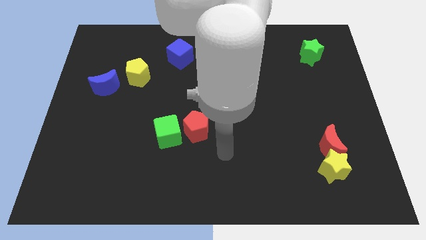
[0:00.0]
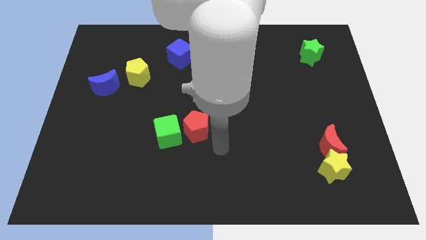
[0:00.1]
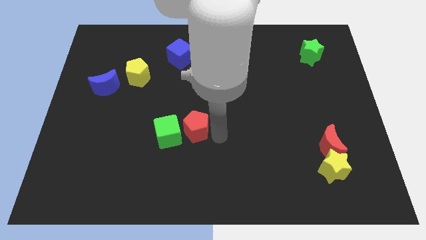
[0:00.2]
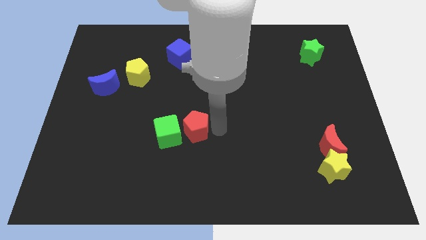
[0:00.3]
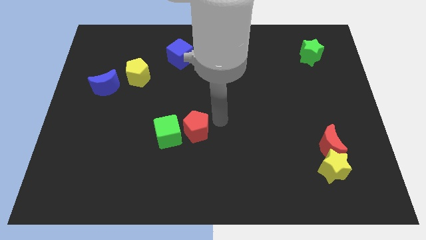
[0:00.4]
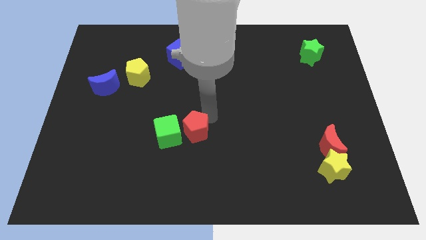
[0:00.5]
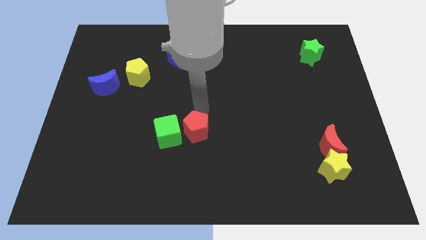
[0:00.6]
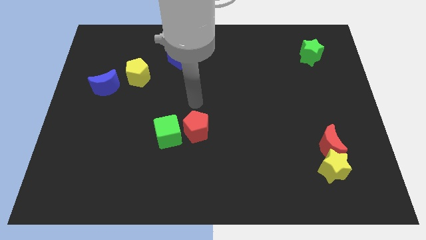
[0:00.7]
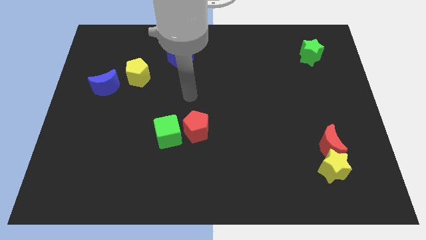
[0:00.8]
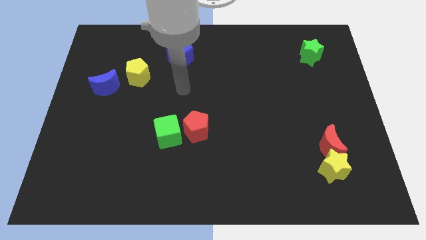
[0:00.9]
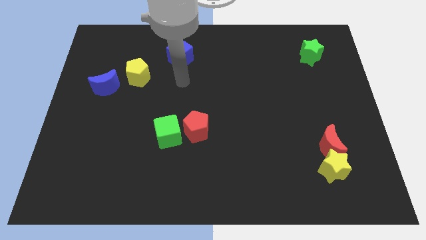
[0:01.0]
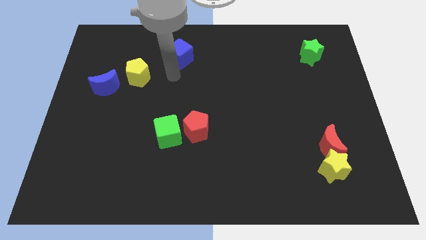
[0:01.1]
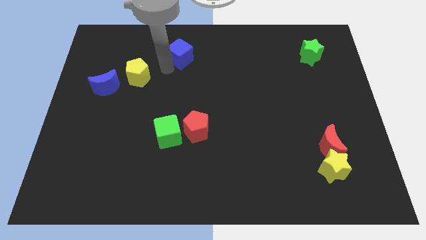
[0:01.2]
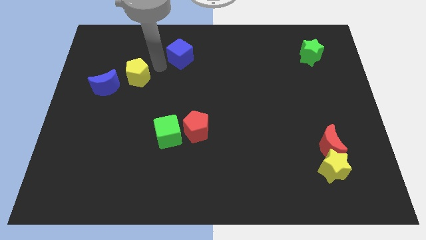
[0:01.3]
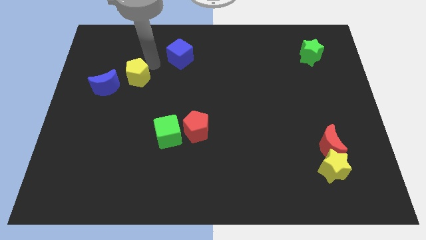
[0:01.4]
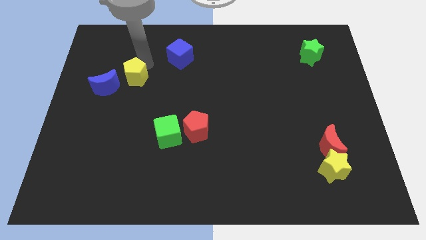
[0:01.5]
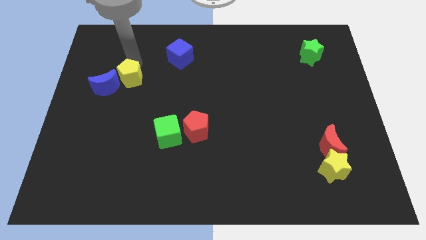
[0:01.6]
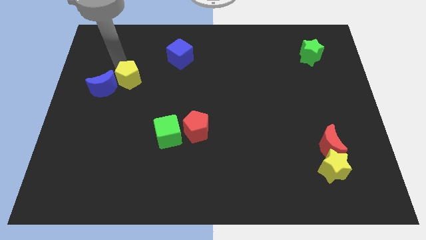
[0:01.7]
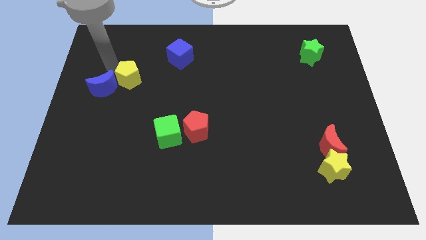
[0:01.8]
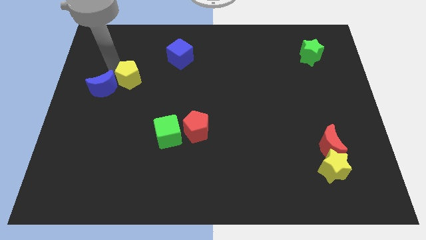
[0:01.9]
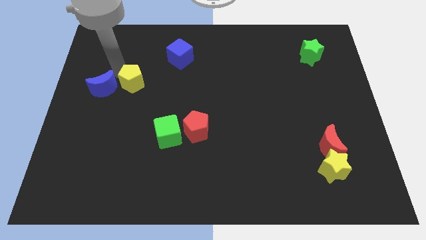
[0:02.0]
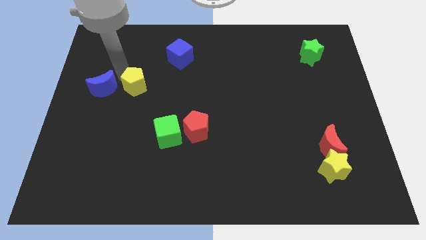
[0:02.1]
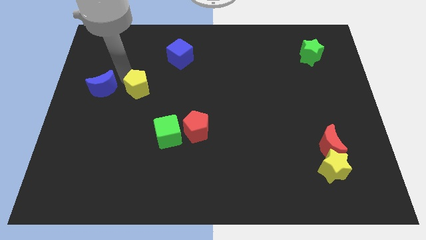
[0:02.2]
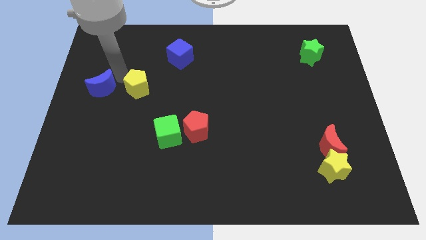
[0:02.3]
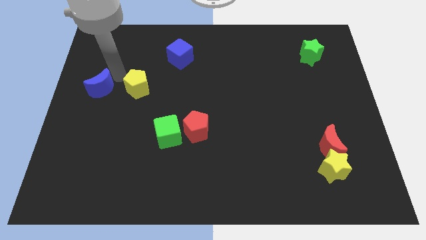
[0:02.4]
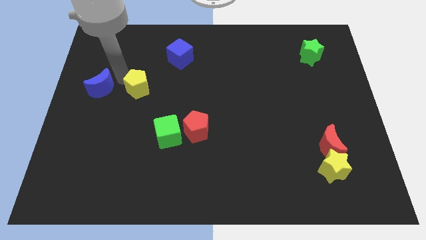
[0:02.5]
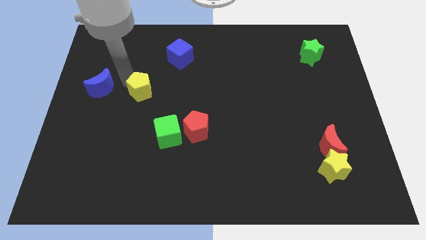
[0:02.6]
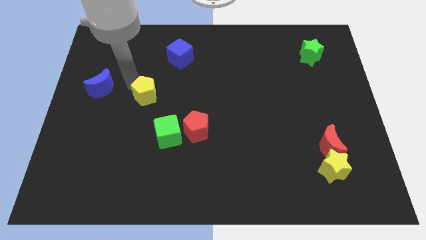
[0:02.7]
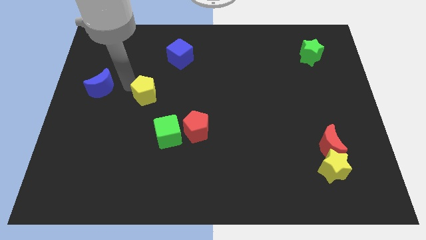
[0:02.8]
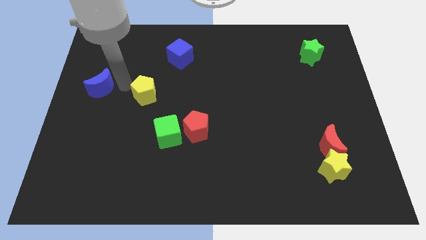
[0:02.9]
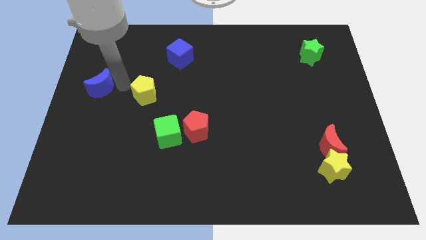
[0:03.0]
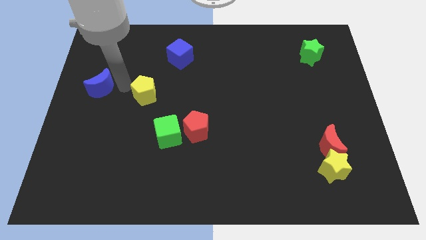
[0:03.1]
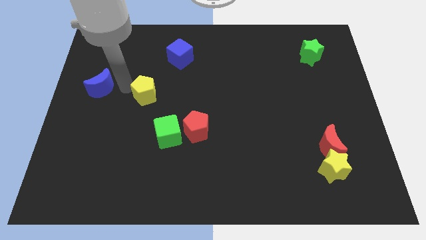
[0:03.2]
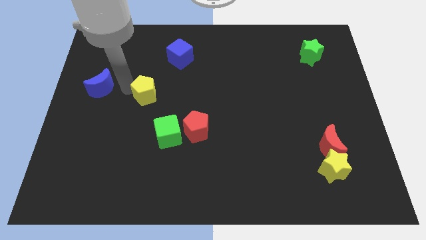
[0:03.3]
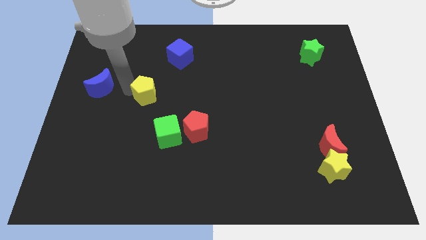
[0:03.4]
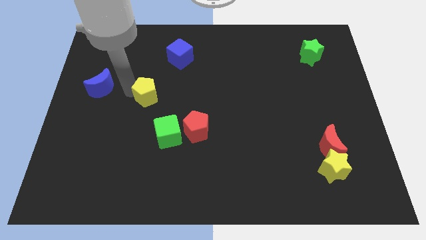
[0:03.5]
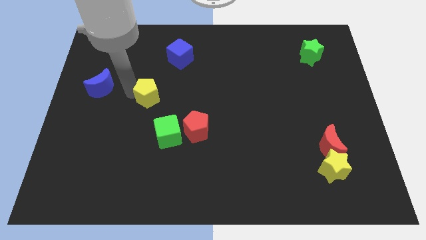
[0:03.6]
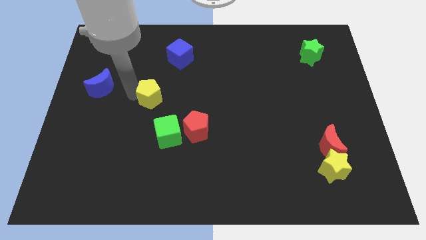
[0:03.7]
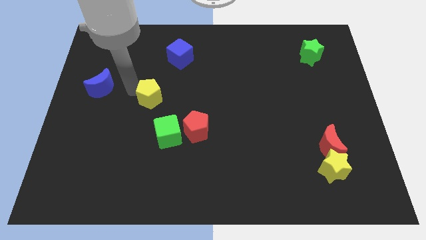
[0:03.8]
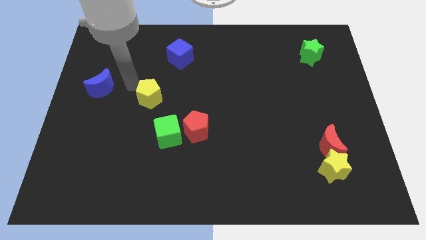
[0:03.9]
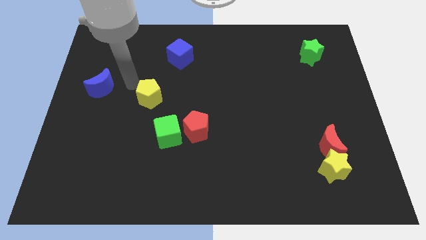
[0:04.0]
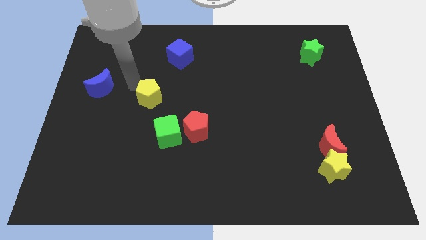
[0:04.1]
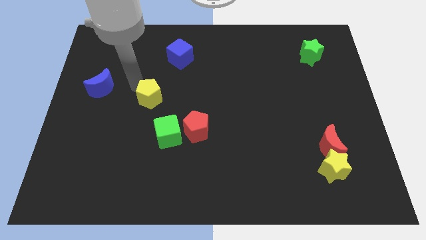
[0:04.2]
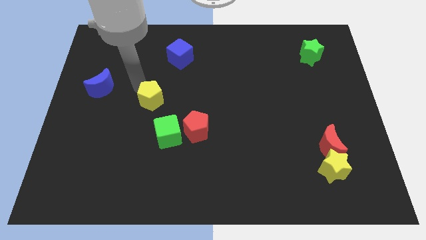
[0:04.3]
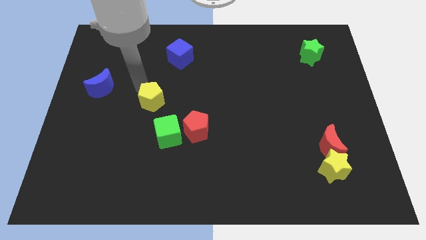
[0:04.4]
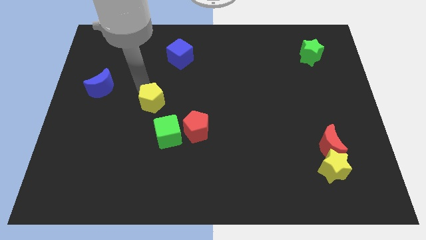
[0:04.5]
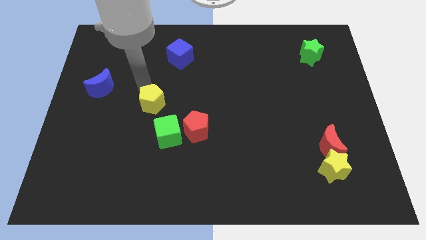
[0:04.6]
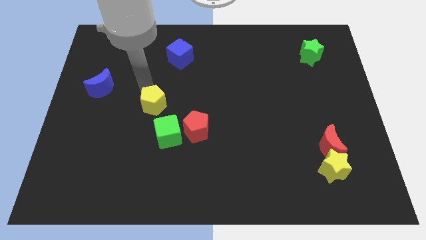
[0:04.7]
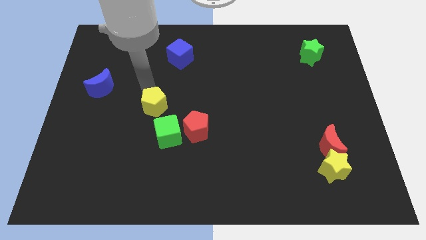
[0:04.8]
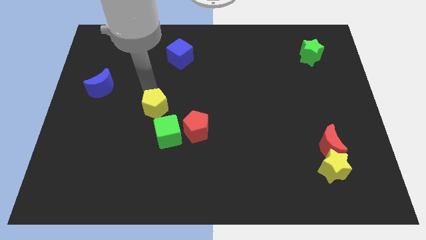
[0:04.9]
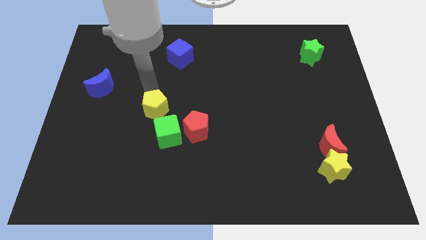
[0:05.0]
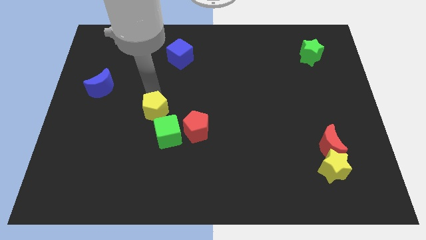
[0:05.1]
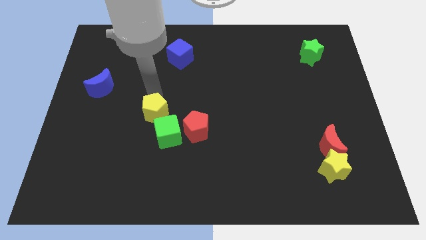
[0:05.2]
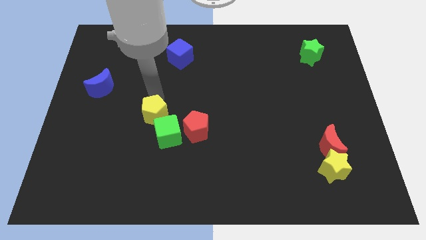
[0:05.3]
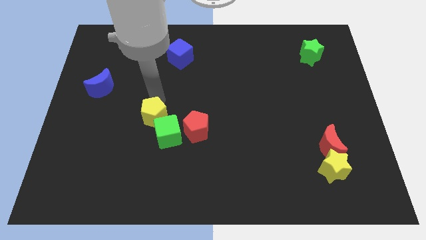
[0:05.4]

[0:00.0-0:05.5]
put the yellow pentagon next to the green cube

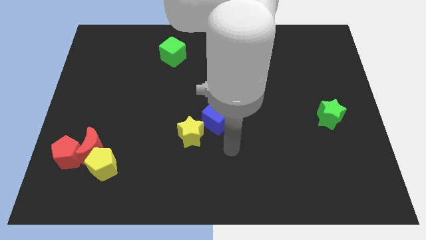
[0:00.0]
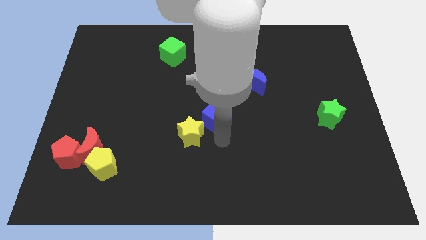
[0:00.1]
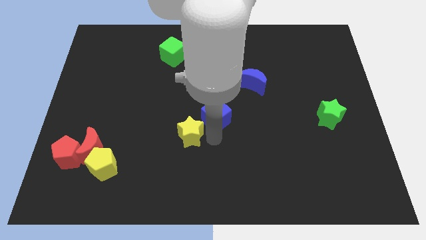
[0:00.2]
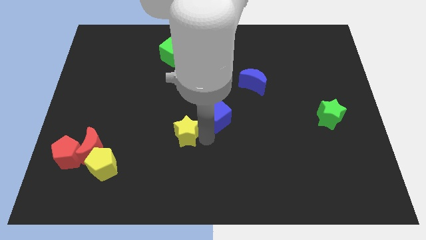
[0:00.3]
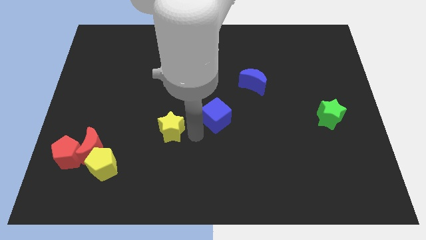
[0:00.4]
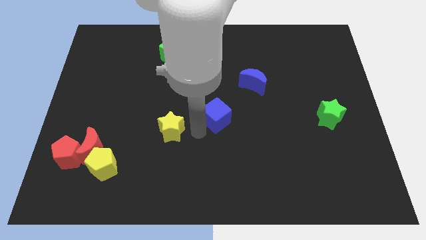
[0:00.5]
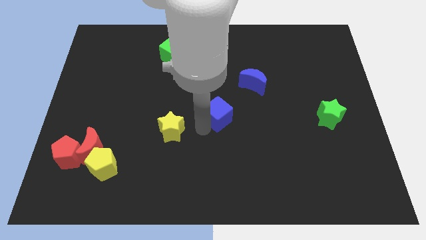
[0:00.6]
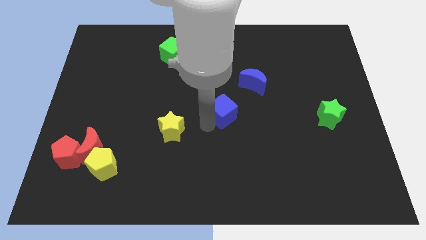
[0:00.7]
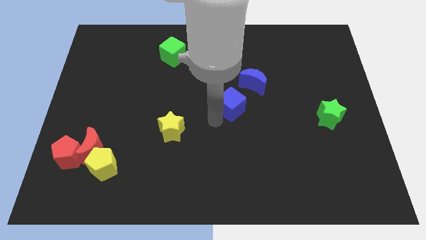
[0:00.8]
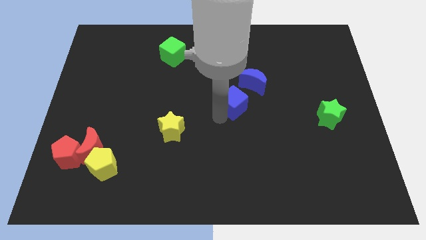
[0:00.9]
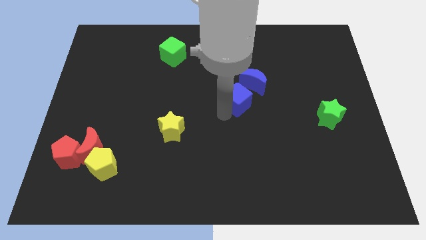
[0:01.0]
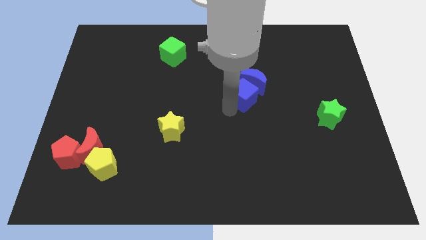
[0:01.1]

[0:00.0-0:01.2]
push the blue cube towards the blue moon

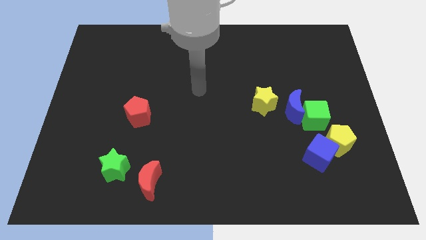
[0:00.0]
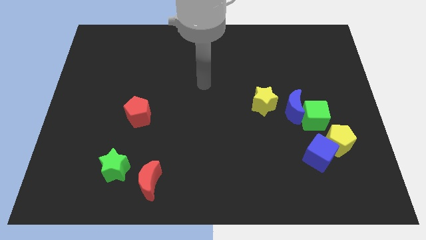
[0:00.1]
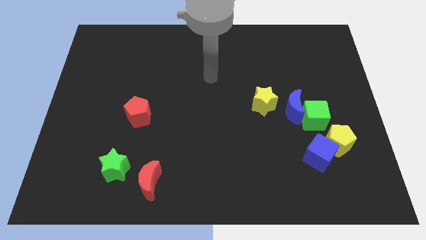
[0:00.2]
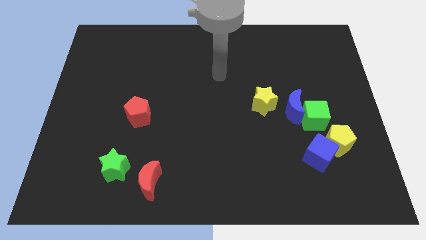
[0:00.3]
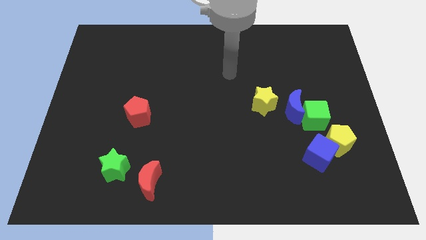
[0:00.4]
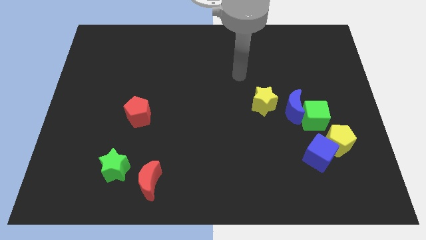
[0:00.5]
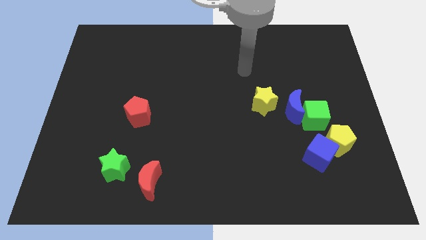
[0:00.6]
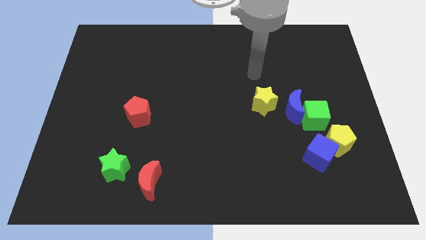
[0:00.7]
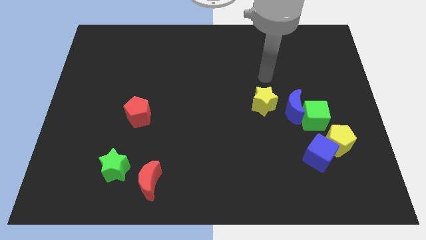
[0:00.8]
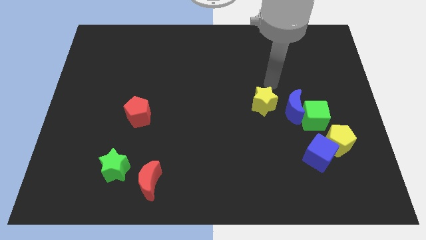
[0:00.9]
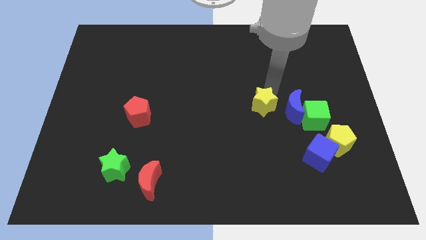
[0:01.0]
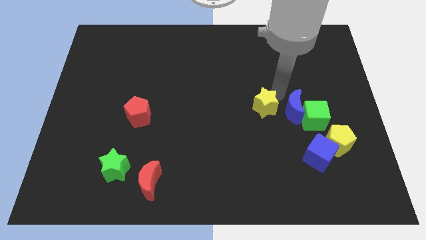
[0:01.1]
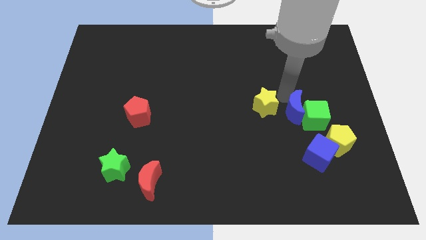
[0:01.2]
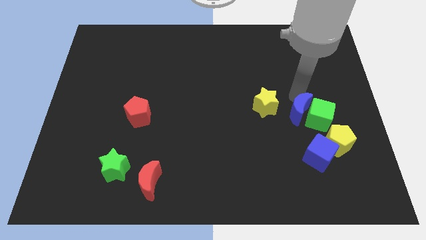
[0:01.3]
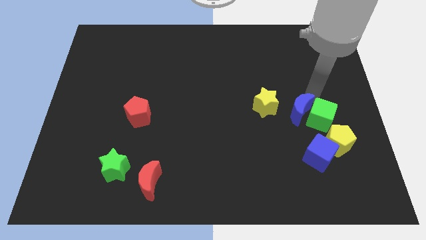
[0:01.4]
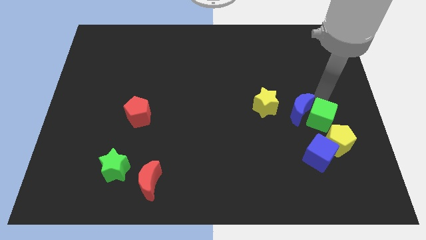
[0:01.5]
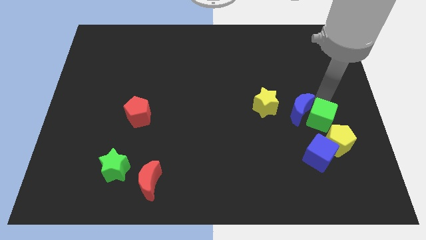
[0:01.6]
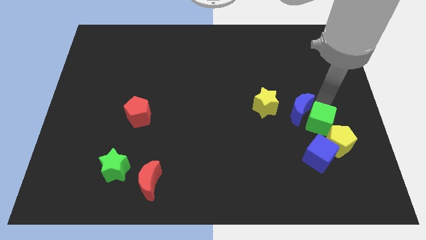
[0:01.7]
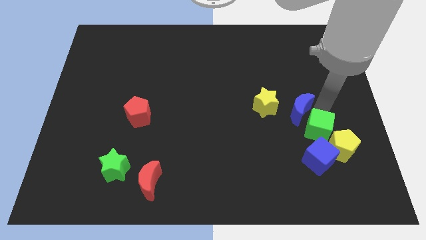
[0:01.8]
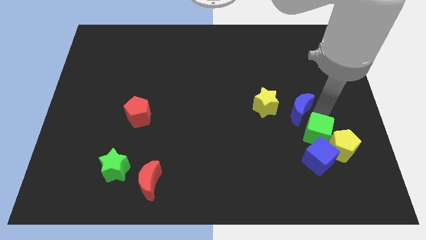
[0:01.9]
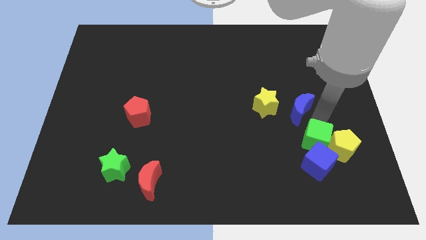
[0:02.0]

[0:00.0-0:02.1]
move the green cube to the blue cube
